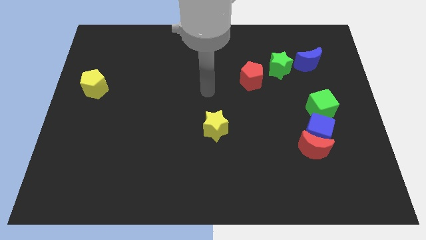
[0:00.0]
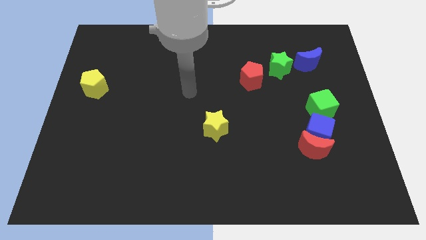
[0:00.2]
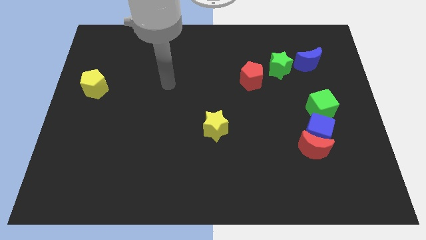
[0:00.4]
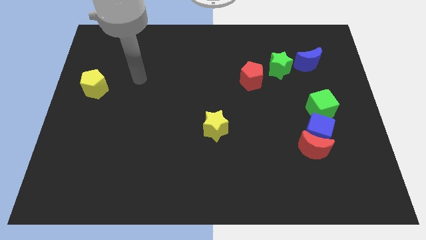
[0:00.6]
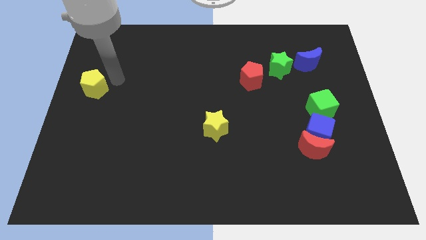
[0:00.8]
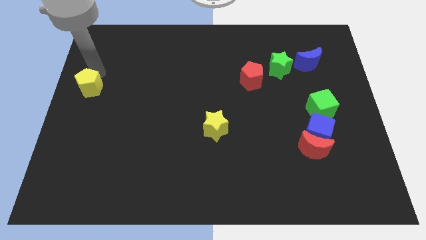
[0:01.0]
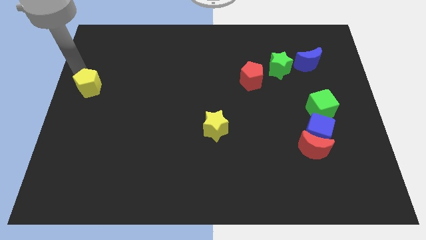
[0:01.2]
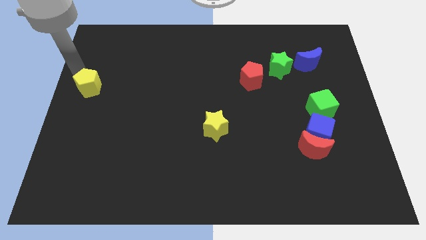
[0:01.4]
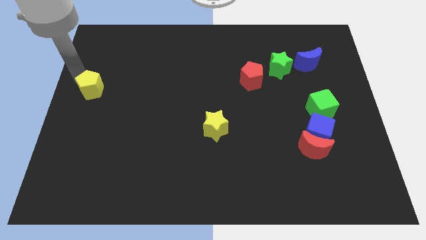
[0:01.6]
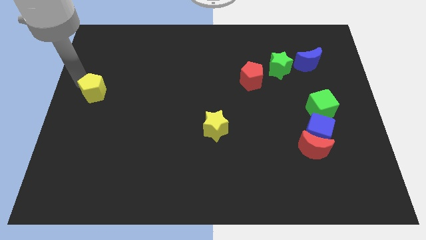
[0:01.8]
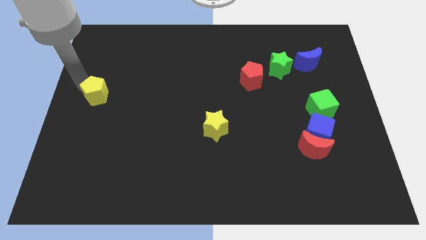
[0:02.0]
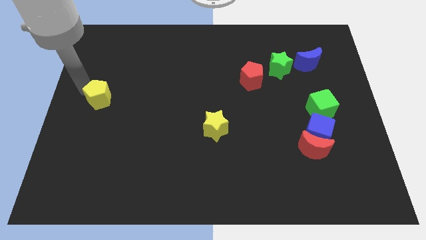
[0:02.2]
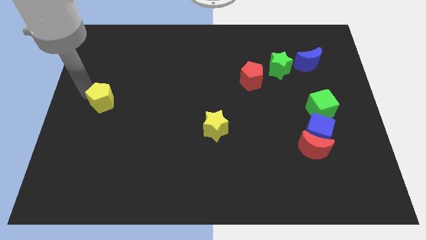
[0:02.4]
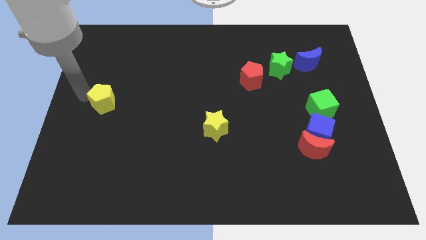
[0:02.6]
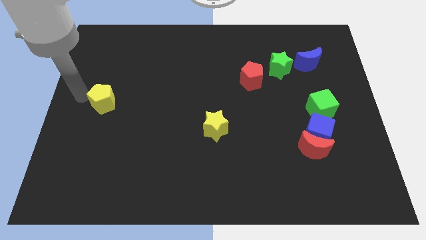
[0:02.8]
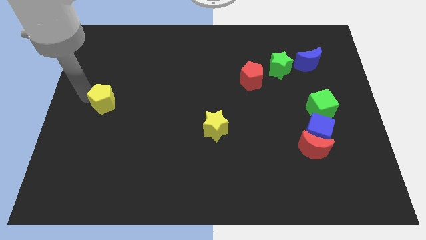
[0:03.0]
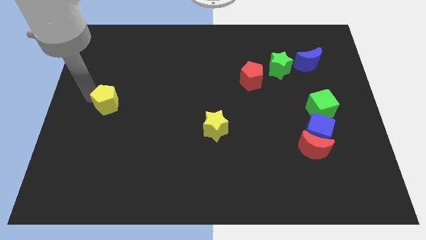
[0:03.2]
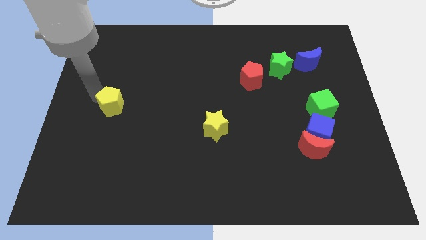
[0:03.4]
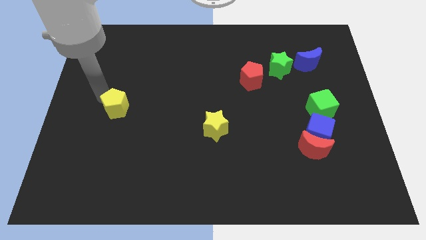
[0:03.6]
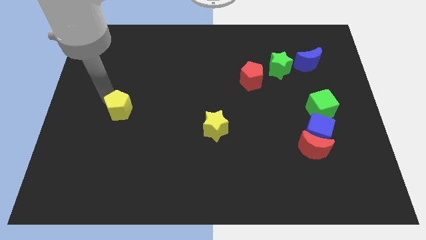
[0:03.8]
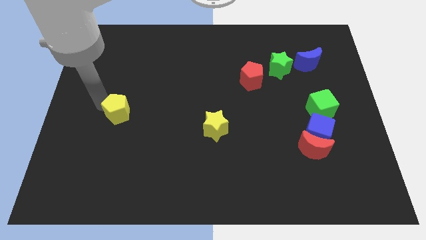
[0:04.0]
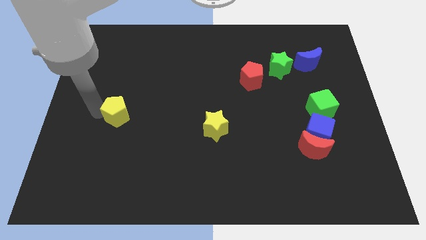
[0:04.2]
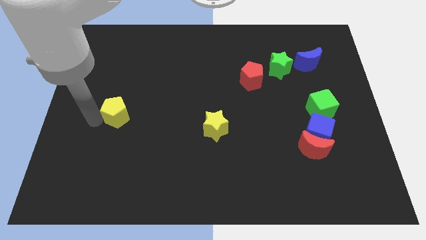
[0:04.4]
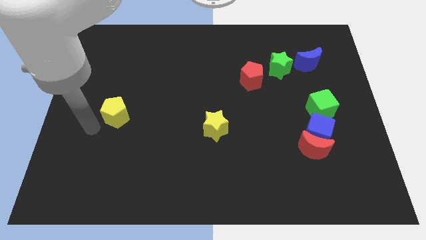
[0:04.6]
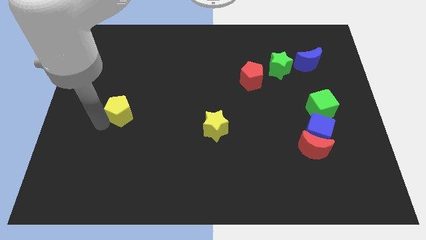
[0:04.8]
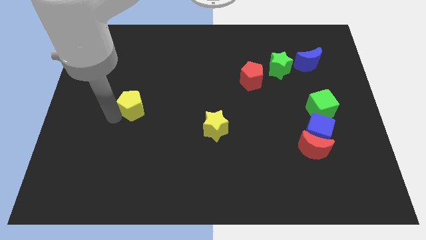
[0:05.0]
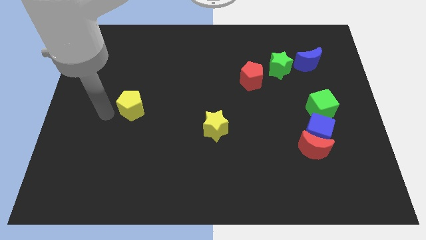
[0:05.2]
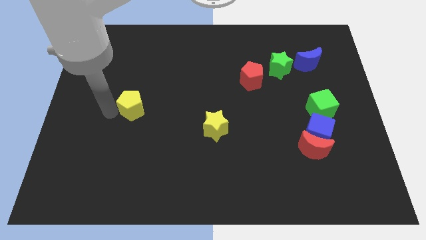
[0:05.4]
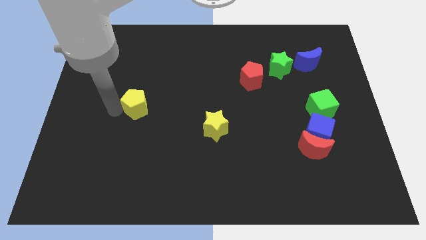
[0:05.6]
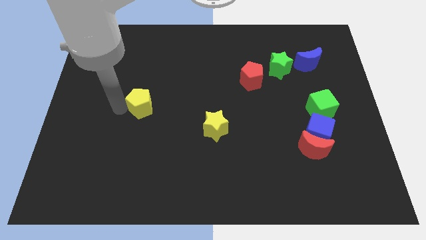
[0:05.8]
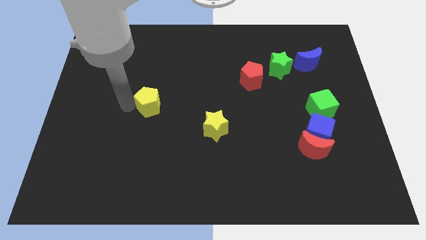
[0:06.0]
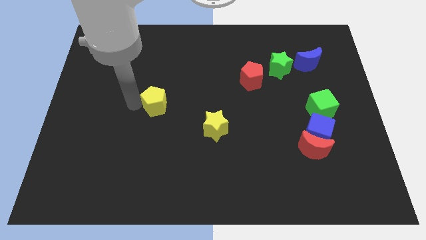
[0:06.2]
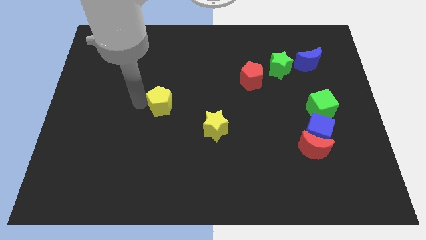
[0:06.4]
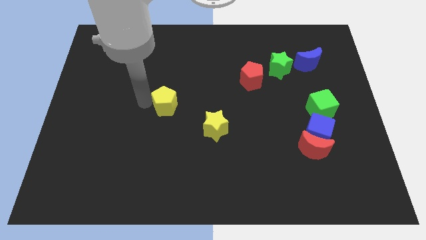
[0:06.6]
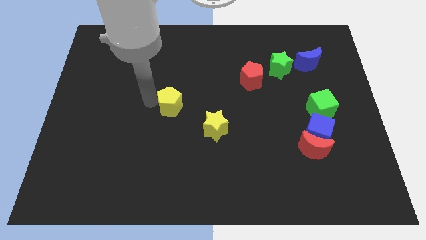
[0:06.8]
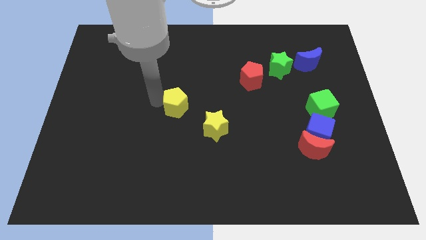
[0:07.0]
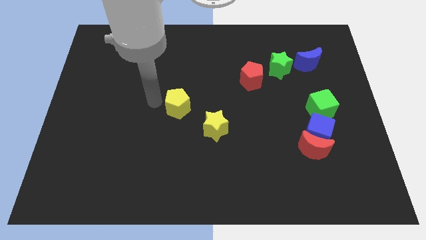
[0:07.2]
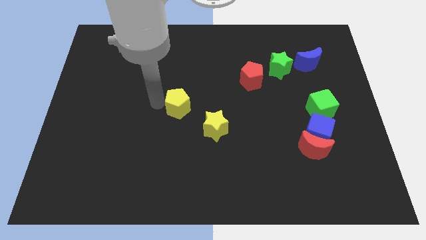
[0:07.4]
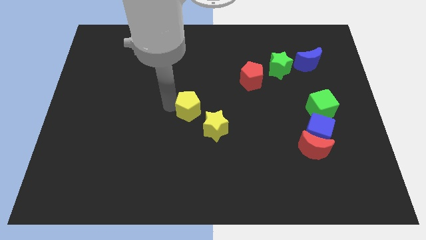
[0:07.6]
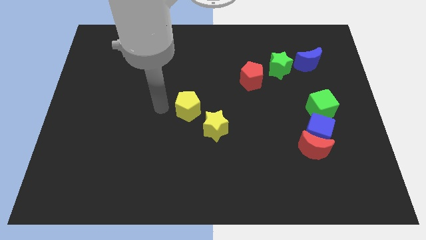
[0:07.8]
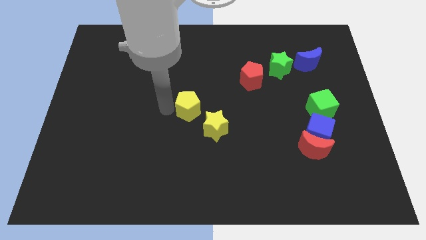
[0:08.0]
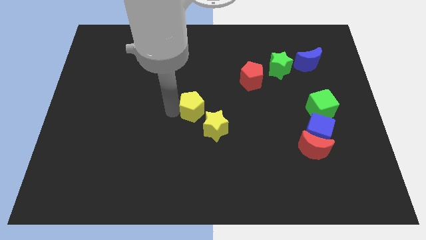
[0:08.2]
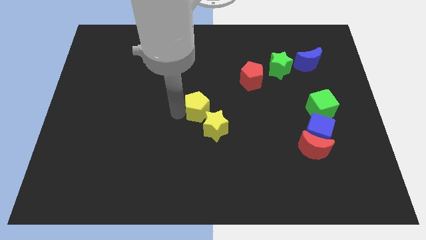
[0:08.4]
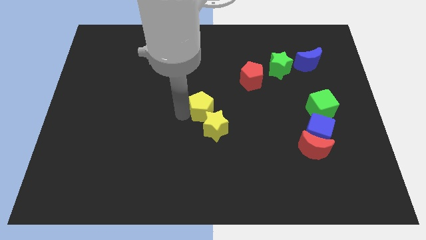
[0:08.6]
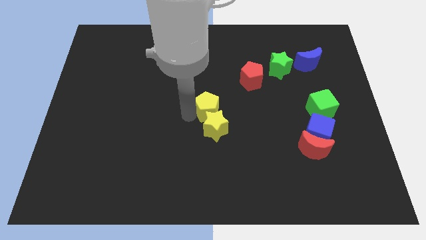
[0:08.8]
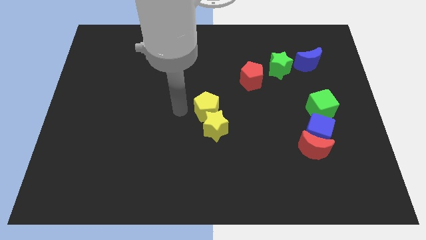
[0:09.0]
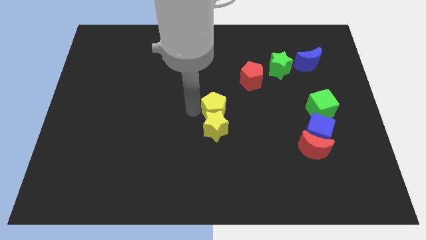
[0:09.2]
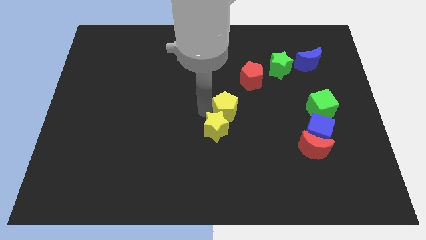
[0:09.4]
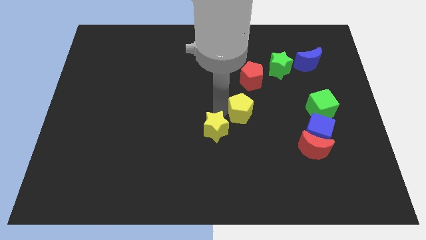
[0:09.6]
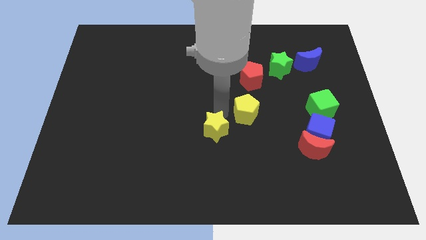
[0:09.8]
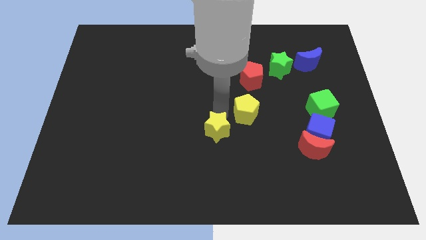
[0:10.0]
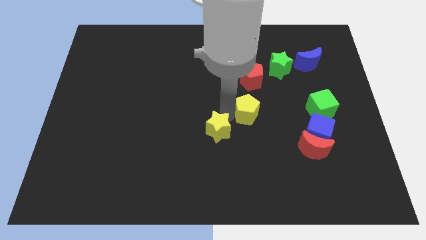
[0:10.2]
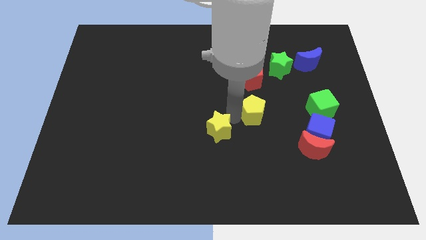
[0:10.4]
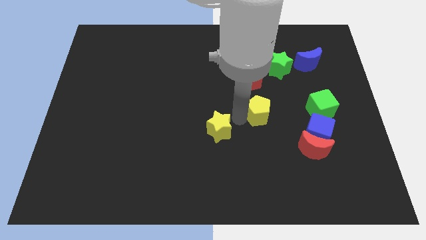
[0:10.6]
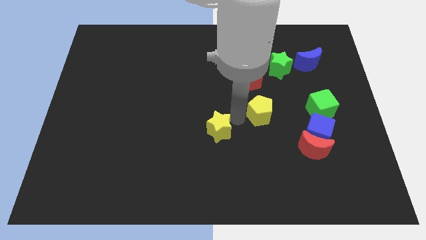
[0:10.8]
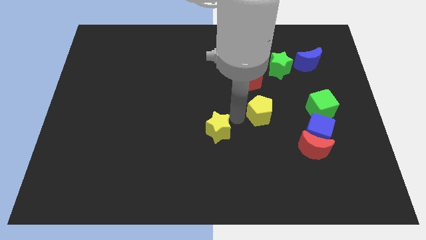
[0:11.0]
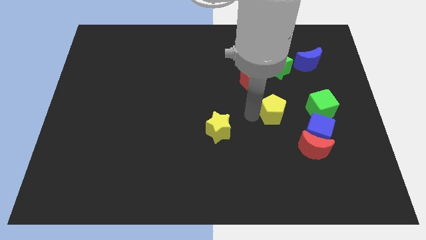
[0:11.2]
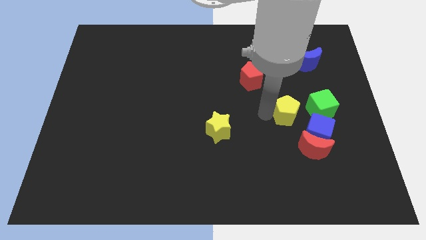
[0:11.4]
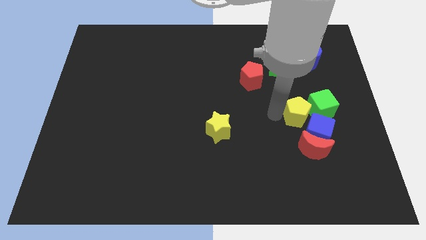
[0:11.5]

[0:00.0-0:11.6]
move the yellow pentagon to the green cube

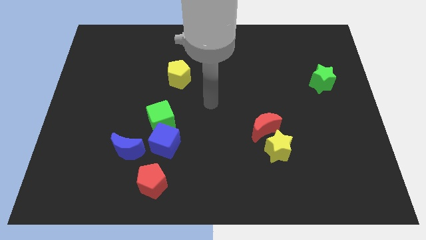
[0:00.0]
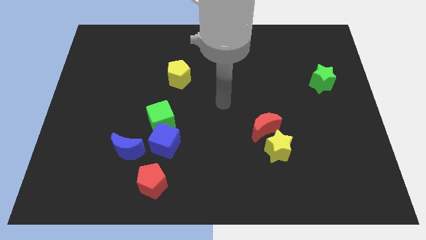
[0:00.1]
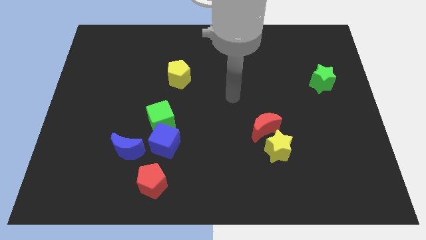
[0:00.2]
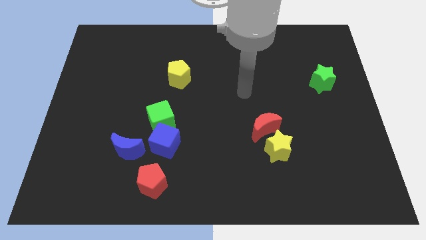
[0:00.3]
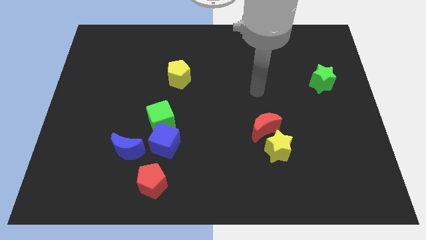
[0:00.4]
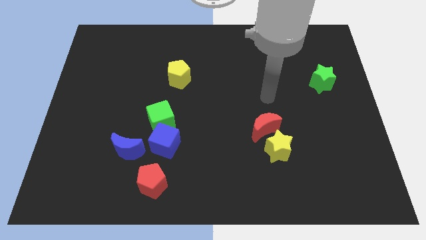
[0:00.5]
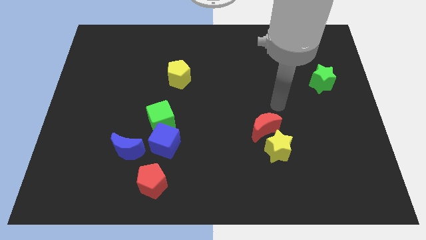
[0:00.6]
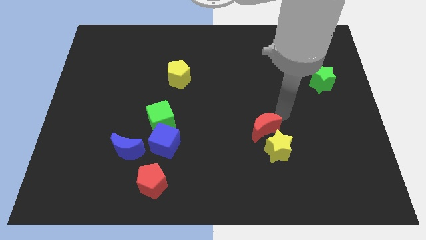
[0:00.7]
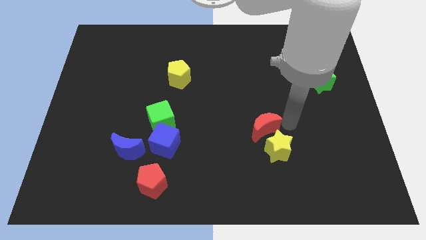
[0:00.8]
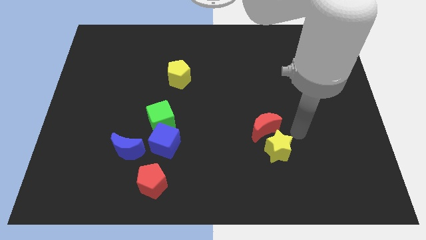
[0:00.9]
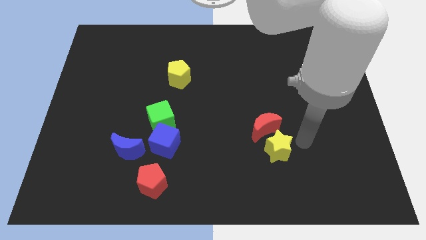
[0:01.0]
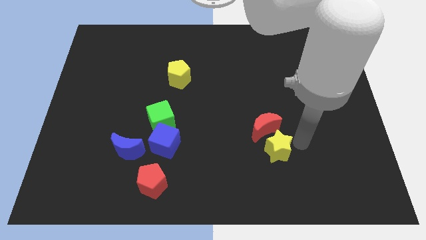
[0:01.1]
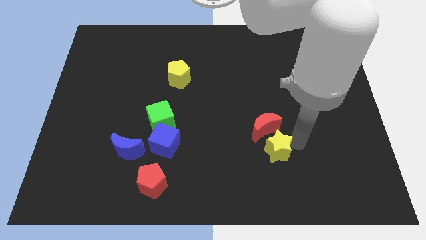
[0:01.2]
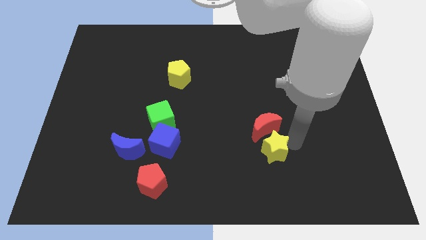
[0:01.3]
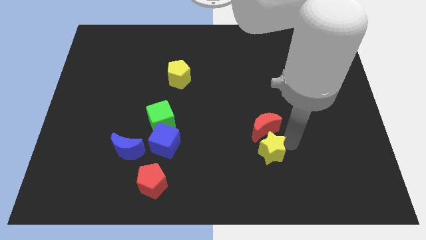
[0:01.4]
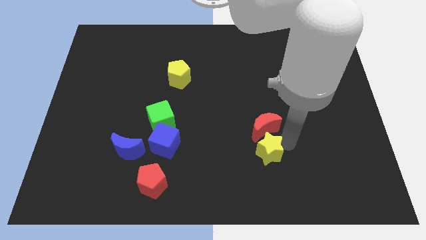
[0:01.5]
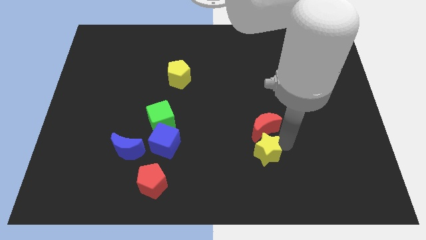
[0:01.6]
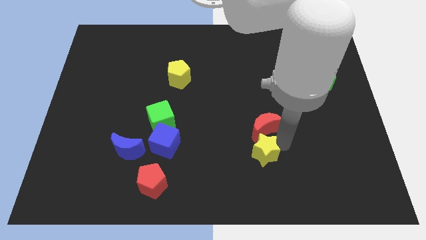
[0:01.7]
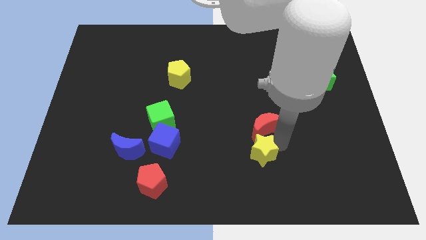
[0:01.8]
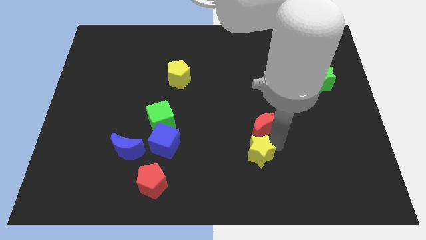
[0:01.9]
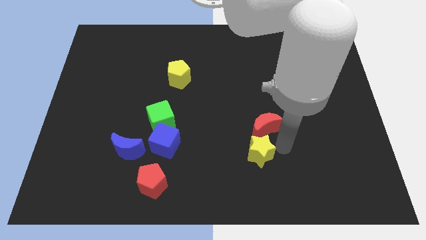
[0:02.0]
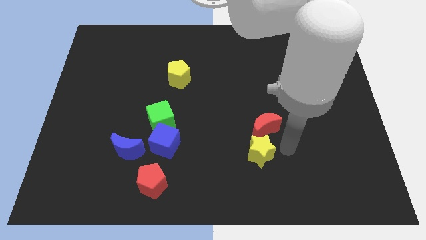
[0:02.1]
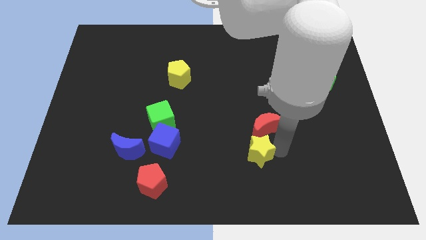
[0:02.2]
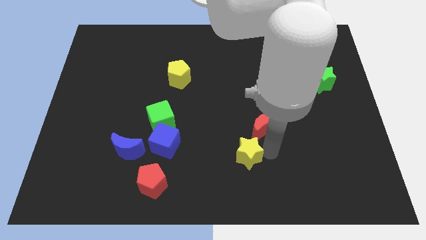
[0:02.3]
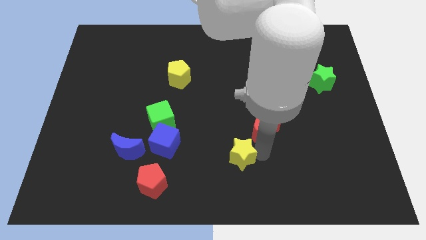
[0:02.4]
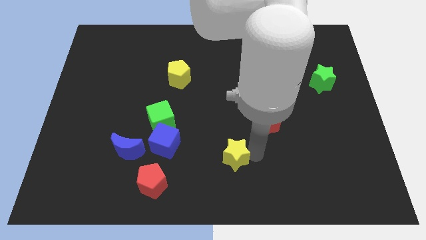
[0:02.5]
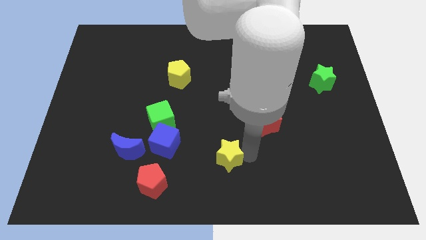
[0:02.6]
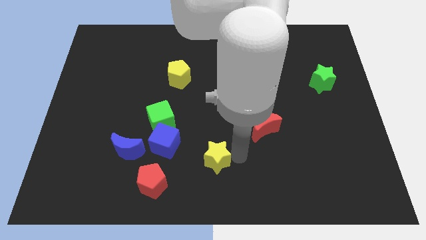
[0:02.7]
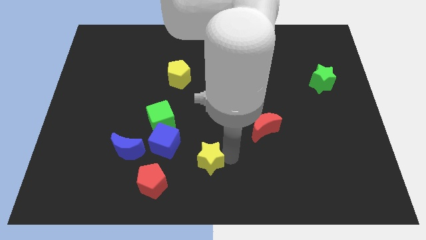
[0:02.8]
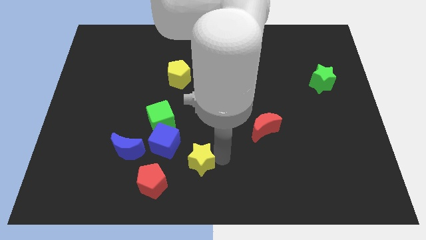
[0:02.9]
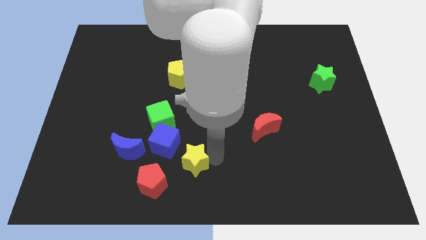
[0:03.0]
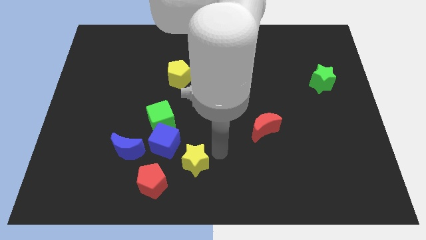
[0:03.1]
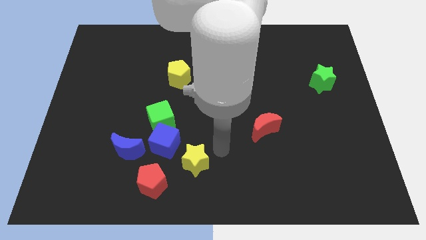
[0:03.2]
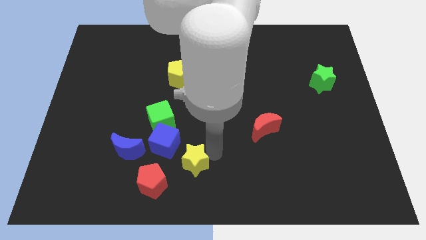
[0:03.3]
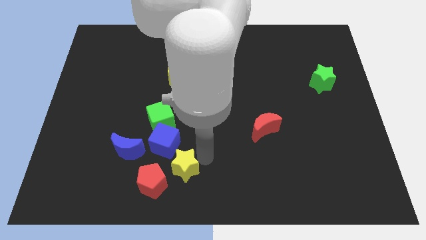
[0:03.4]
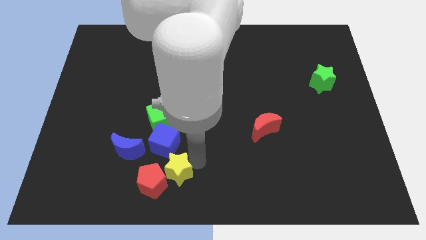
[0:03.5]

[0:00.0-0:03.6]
push the yellow star to the red pentagon
